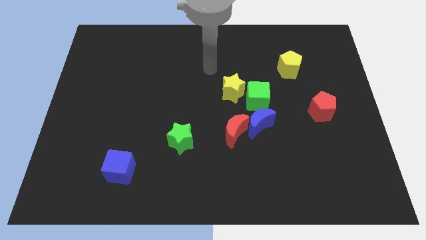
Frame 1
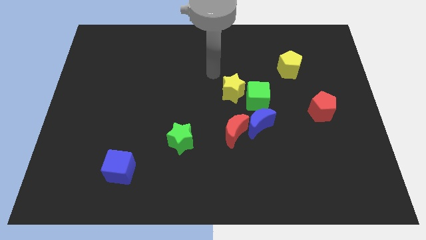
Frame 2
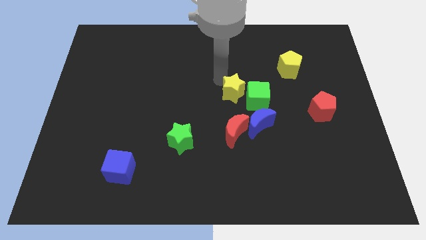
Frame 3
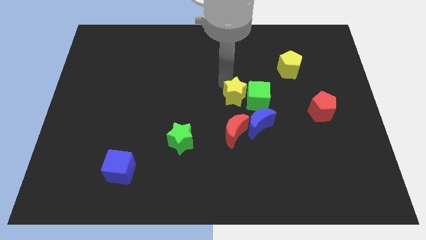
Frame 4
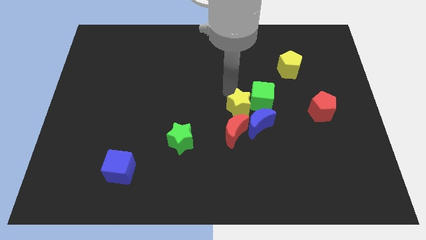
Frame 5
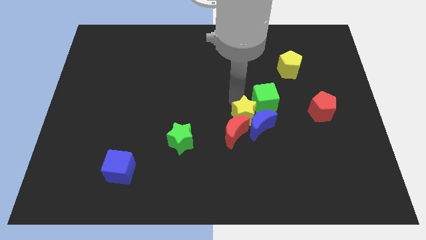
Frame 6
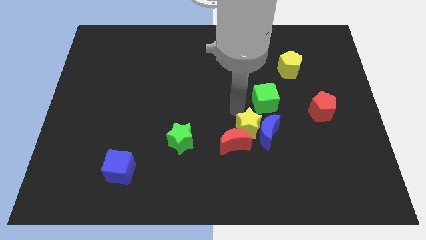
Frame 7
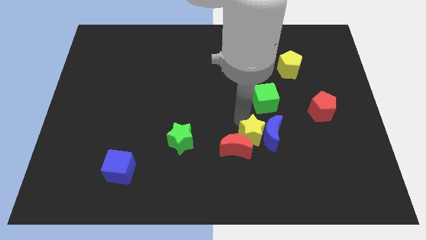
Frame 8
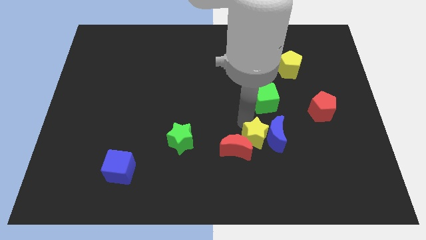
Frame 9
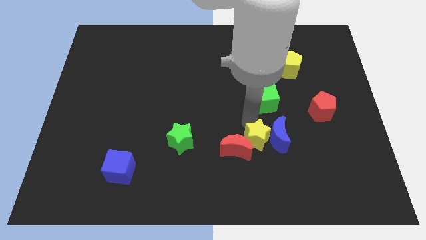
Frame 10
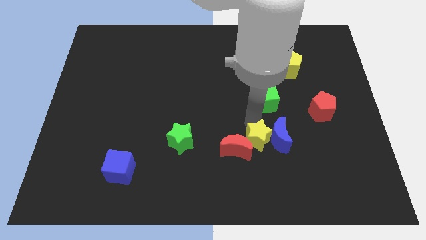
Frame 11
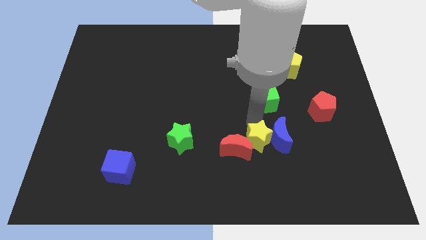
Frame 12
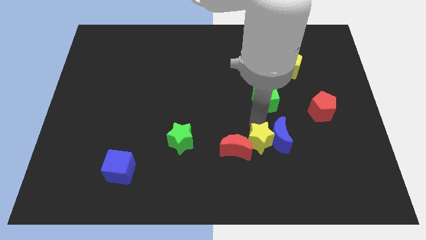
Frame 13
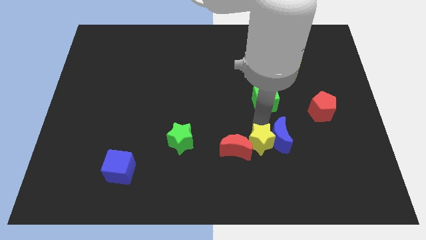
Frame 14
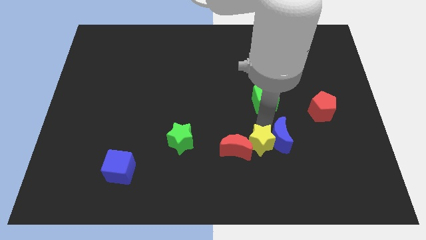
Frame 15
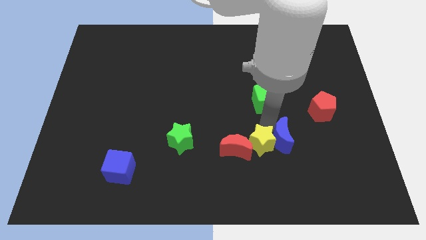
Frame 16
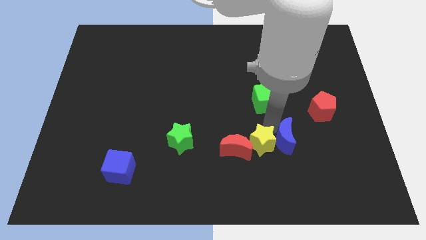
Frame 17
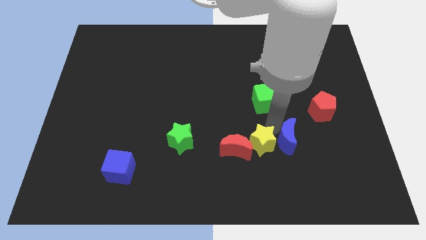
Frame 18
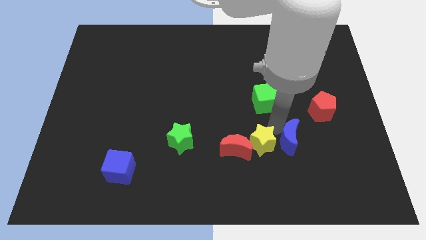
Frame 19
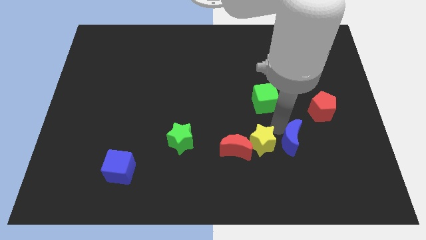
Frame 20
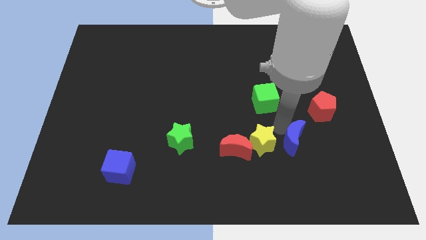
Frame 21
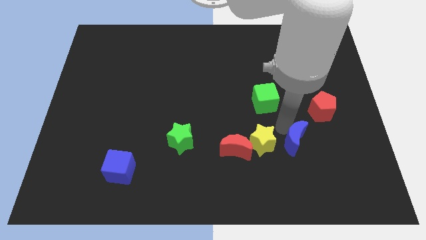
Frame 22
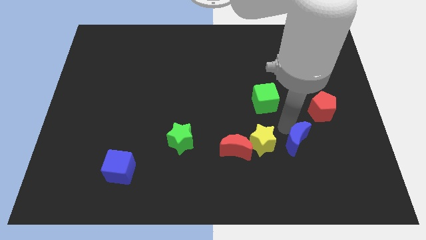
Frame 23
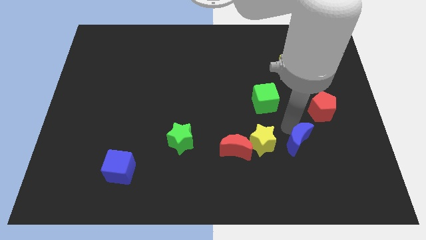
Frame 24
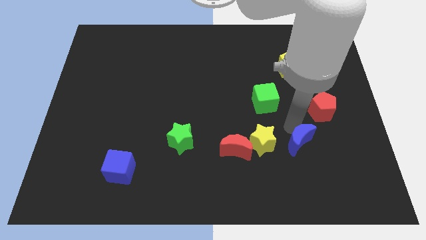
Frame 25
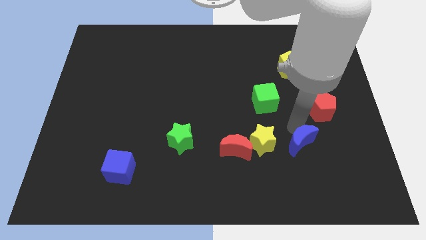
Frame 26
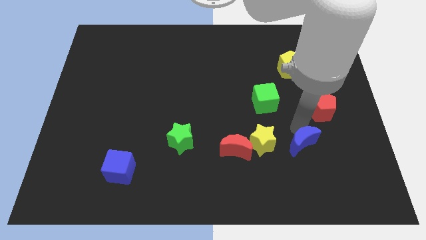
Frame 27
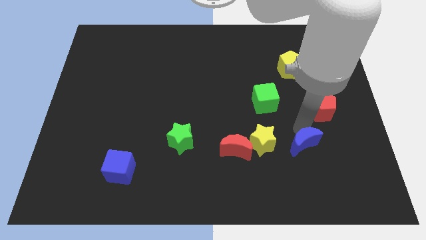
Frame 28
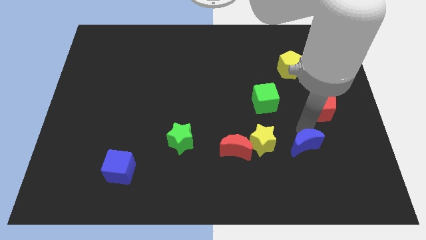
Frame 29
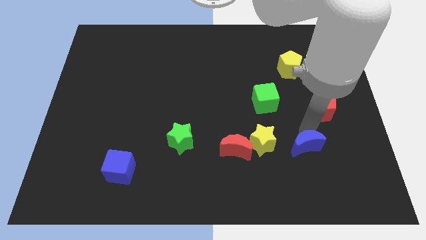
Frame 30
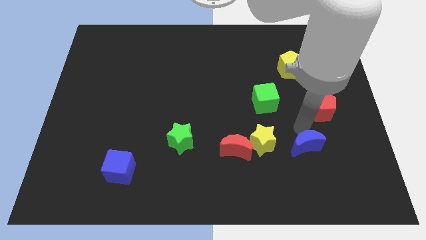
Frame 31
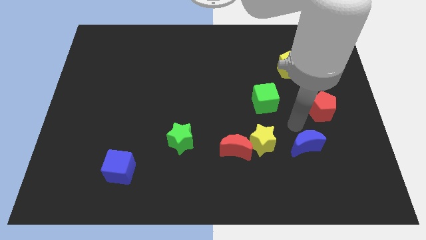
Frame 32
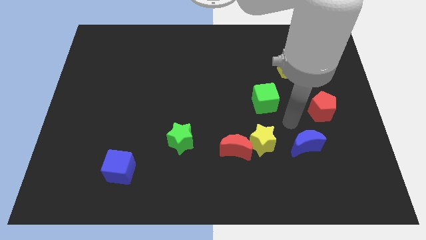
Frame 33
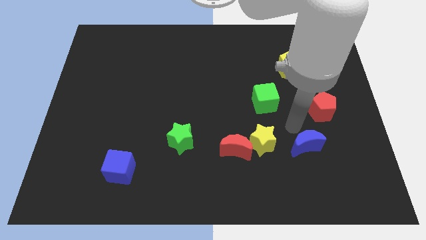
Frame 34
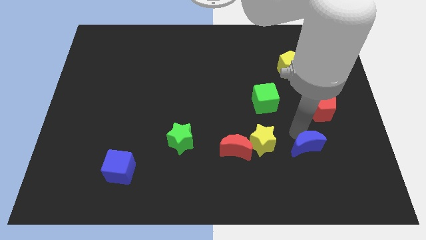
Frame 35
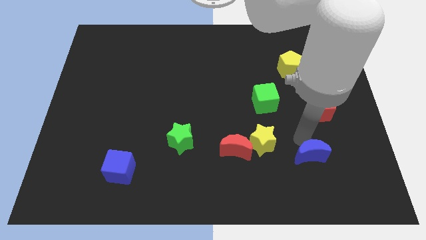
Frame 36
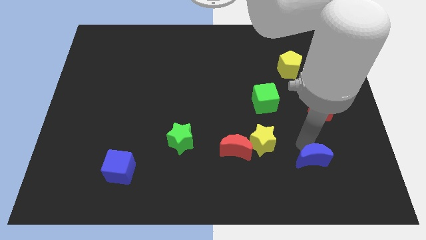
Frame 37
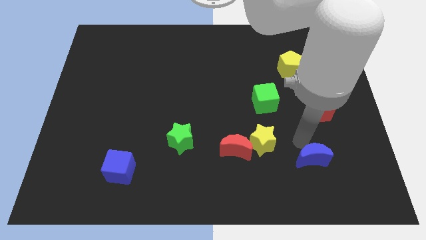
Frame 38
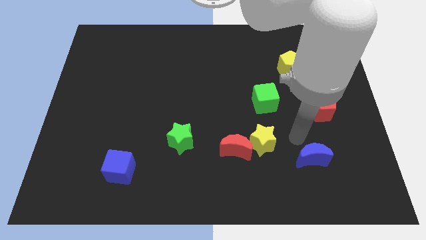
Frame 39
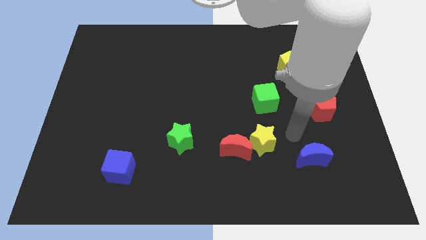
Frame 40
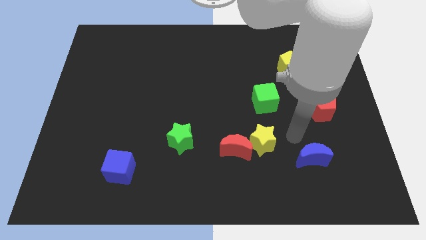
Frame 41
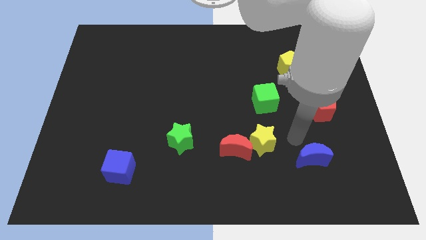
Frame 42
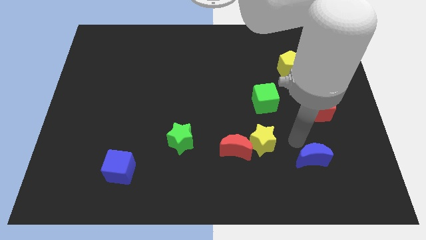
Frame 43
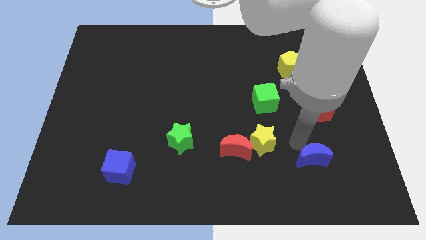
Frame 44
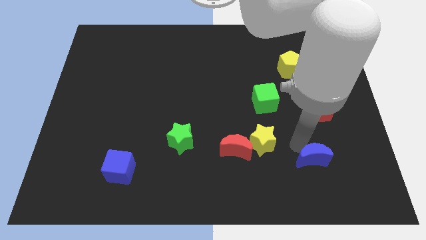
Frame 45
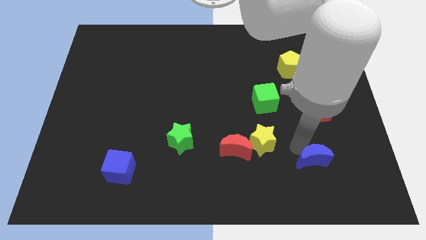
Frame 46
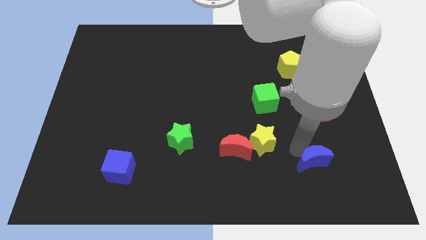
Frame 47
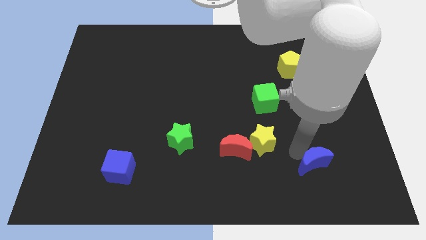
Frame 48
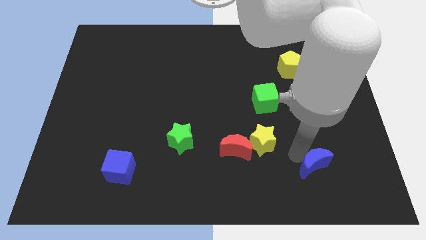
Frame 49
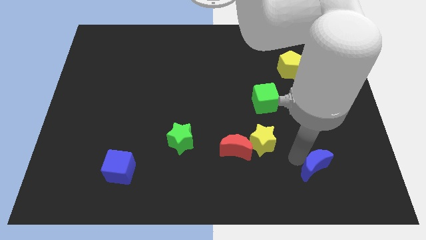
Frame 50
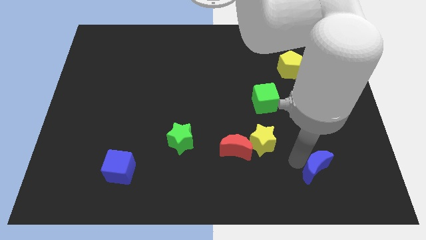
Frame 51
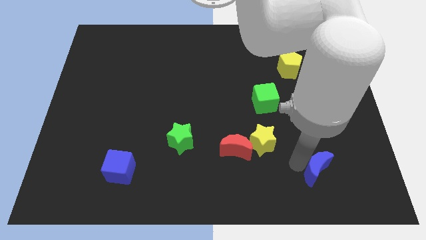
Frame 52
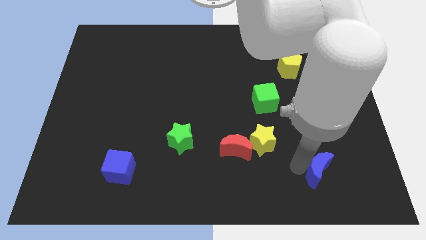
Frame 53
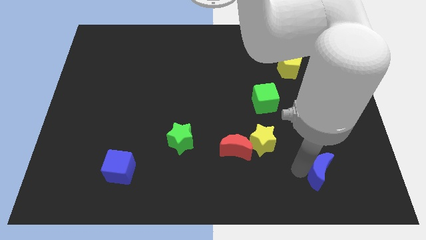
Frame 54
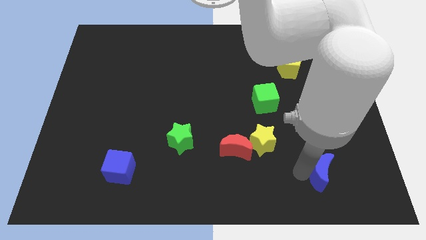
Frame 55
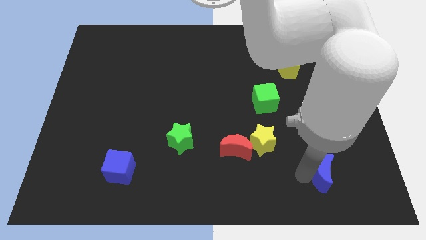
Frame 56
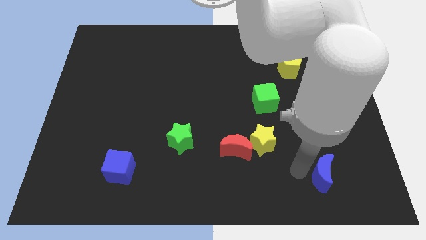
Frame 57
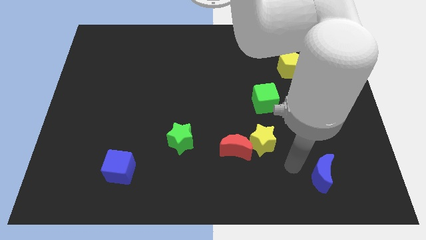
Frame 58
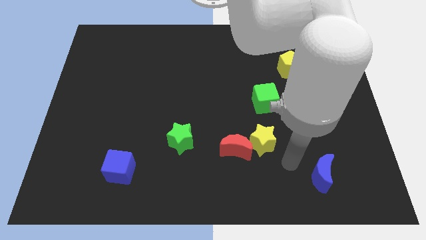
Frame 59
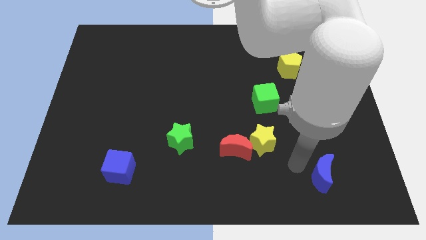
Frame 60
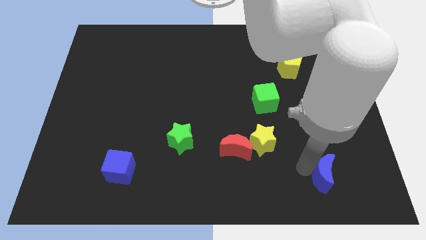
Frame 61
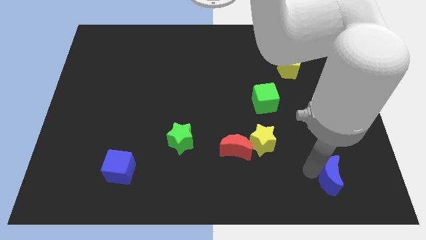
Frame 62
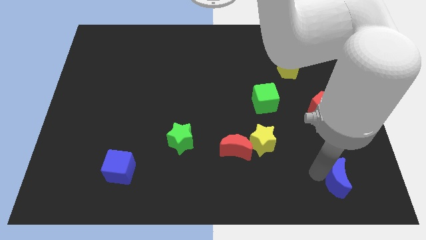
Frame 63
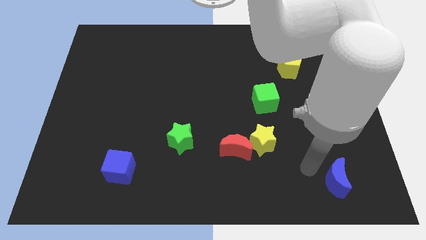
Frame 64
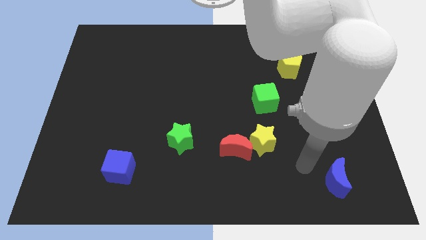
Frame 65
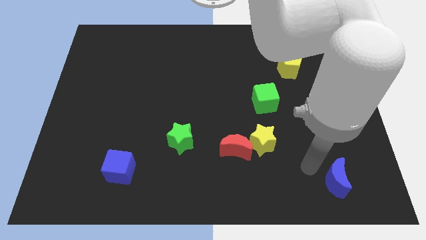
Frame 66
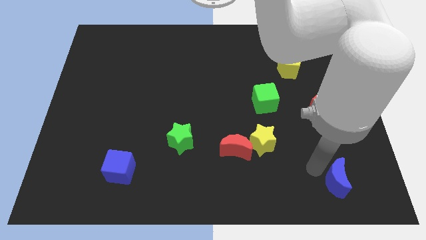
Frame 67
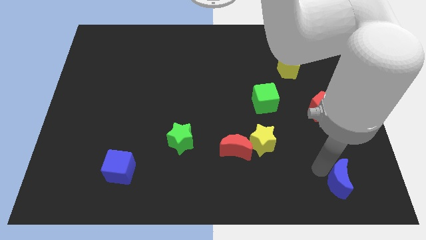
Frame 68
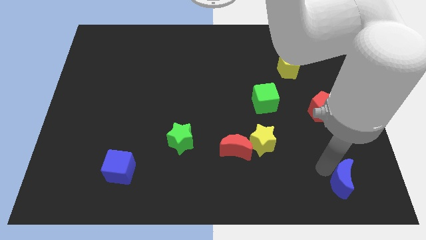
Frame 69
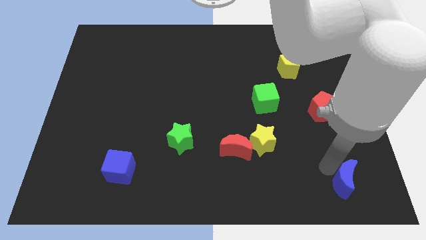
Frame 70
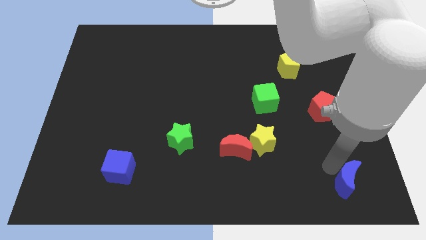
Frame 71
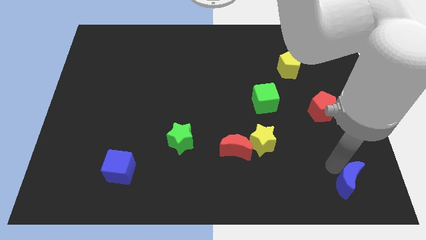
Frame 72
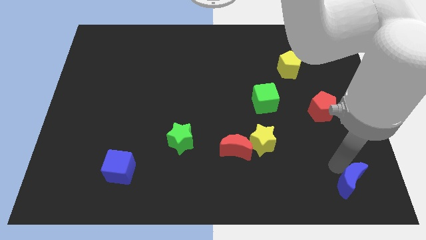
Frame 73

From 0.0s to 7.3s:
push the blue moon to the bottom right corner
